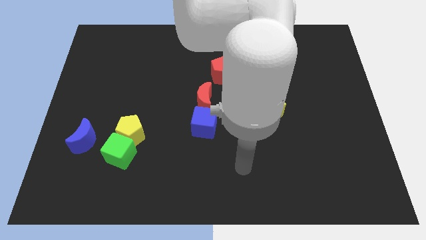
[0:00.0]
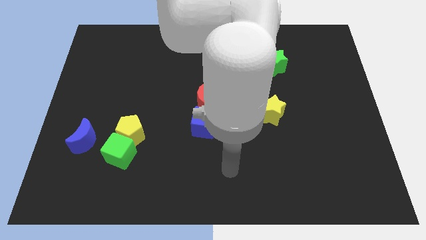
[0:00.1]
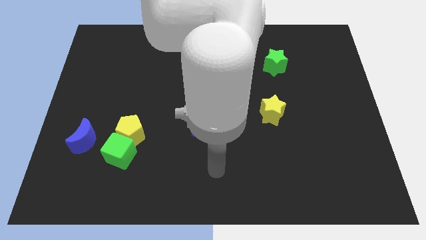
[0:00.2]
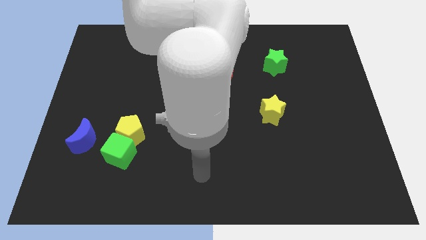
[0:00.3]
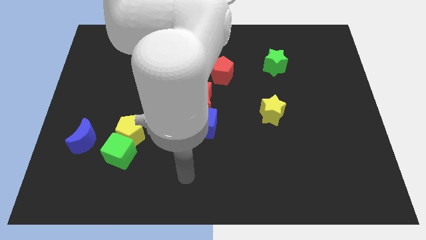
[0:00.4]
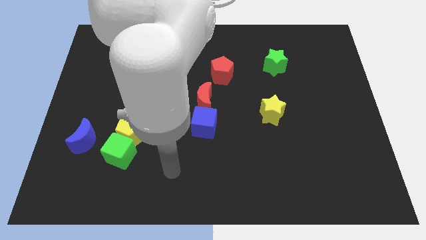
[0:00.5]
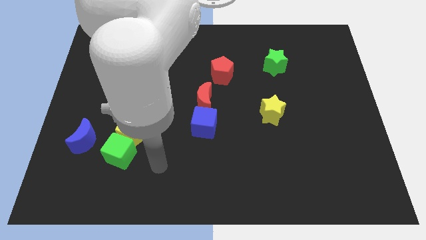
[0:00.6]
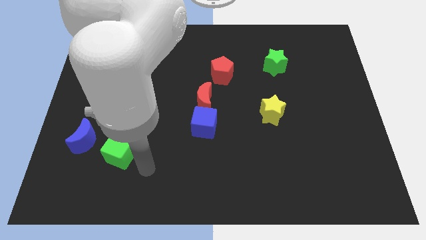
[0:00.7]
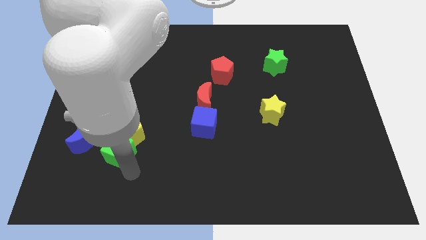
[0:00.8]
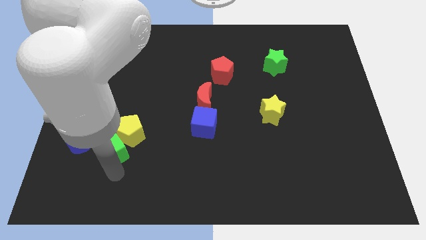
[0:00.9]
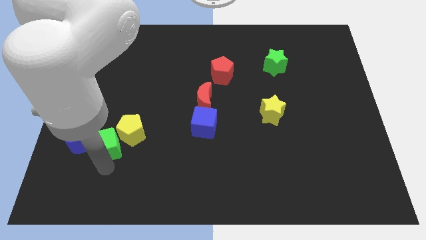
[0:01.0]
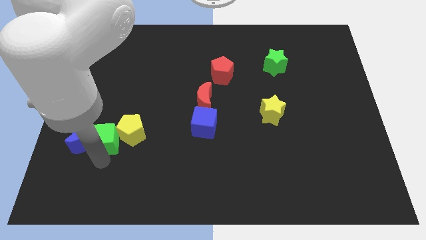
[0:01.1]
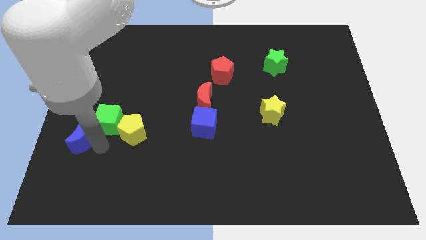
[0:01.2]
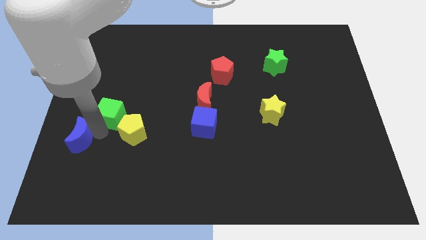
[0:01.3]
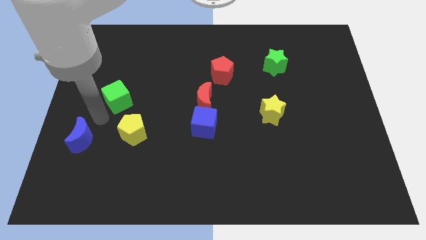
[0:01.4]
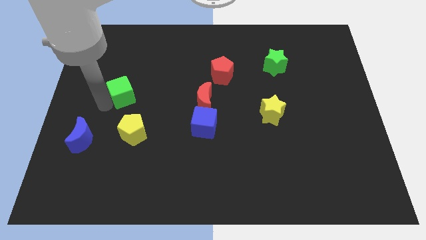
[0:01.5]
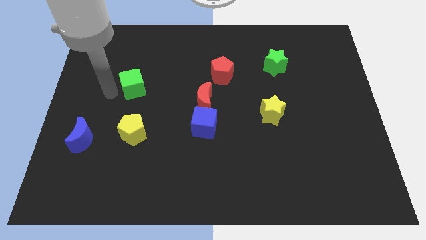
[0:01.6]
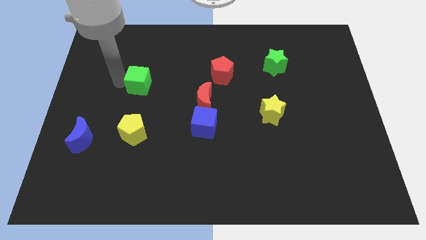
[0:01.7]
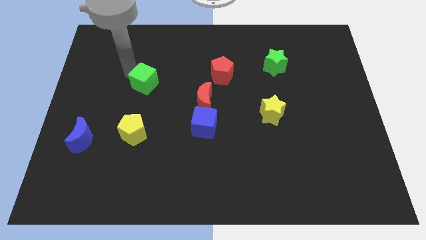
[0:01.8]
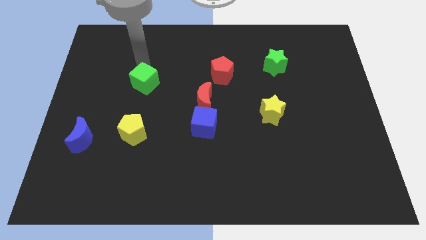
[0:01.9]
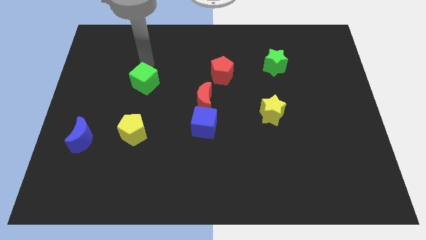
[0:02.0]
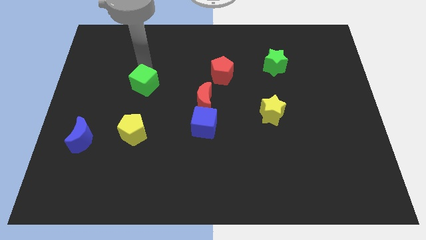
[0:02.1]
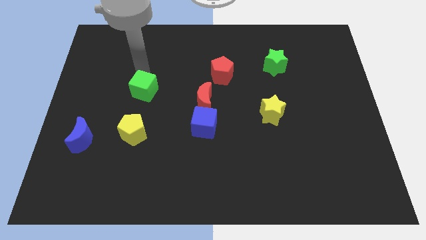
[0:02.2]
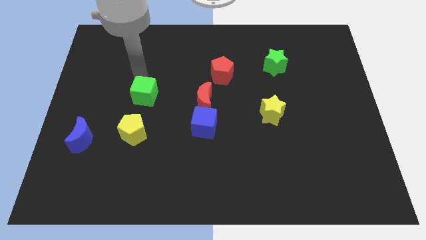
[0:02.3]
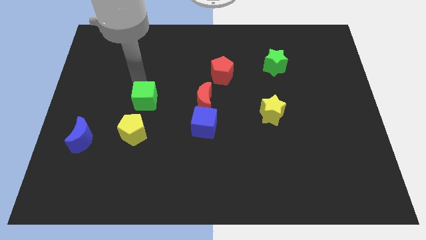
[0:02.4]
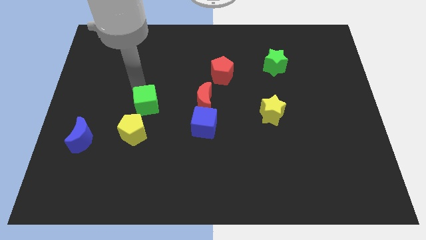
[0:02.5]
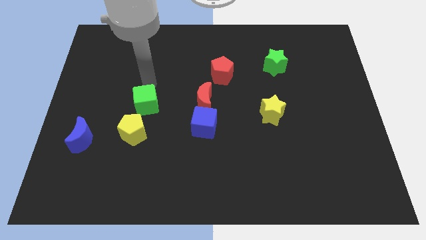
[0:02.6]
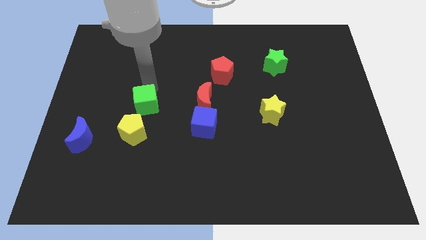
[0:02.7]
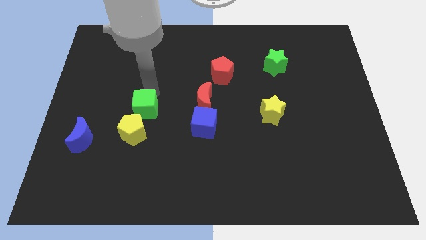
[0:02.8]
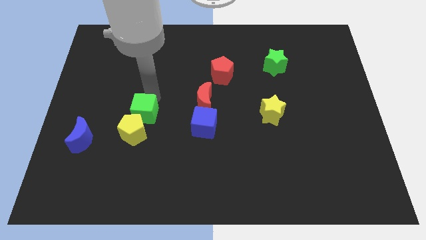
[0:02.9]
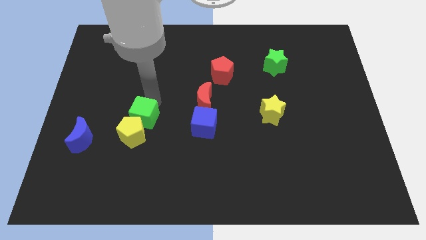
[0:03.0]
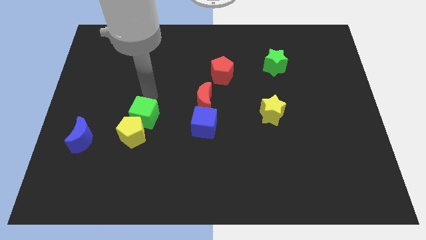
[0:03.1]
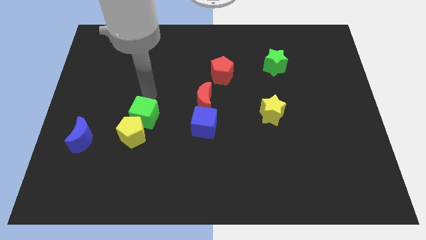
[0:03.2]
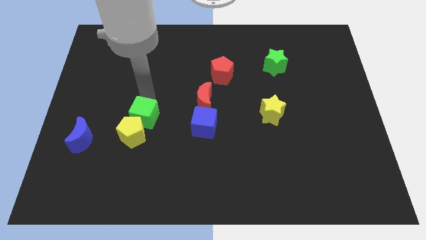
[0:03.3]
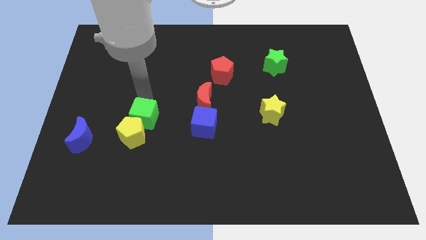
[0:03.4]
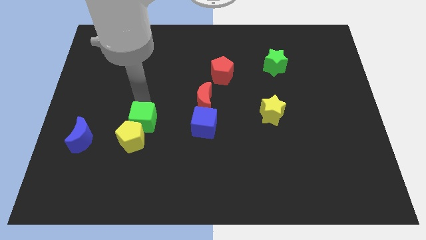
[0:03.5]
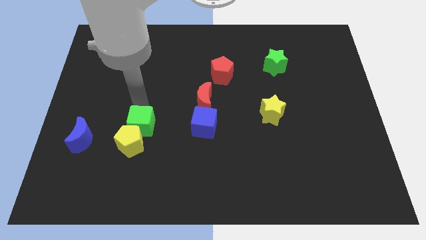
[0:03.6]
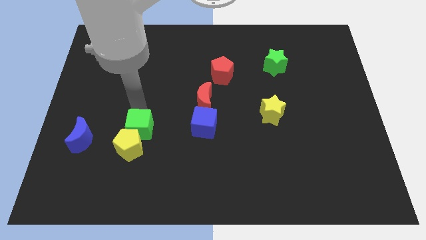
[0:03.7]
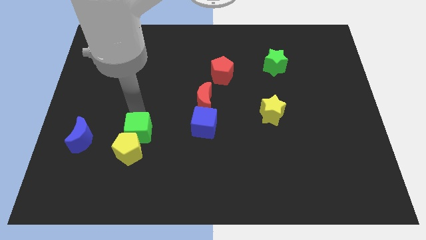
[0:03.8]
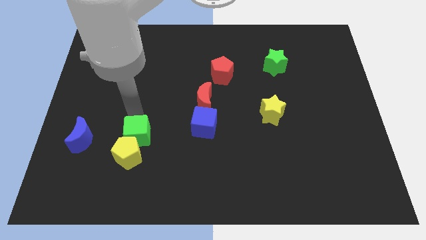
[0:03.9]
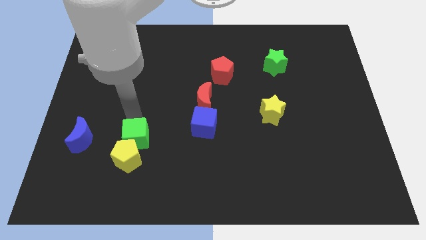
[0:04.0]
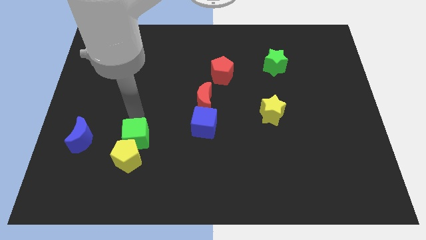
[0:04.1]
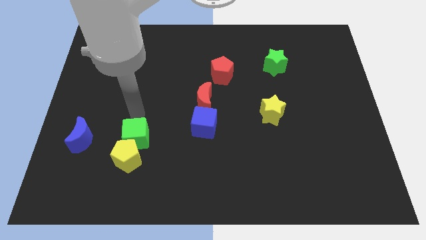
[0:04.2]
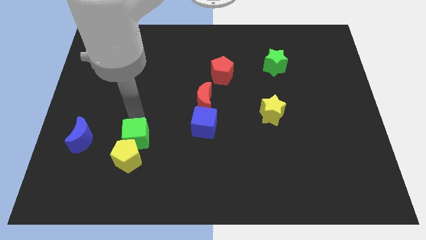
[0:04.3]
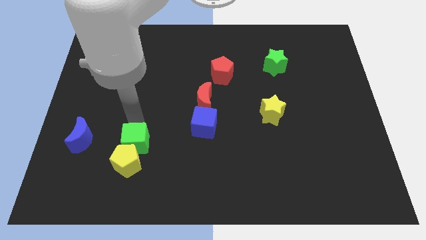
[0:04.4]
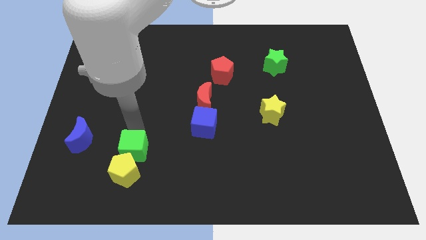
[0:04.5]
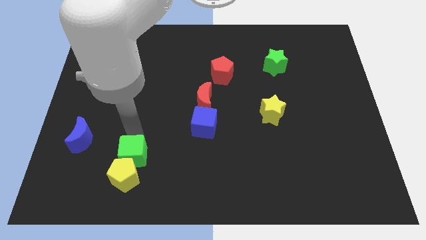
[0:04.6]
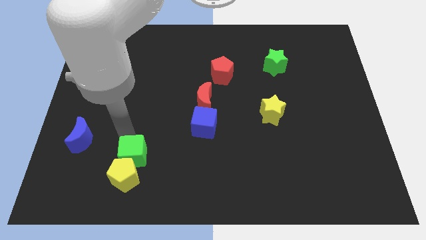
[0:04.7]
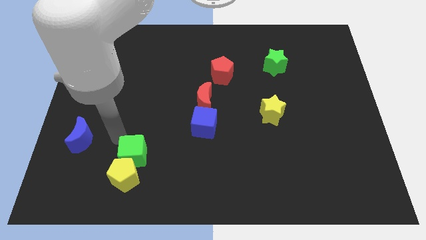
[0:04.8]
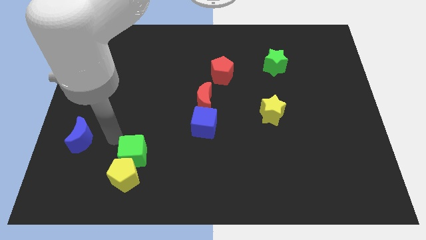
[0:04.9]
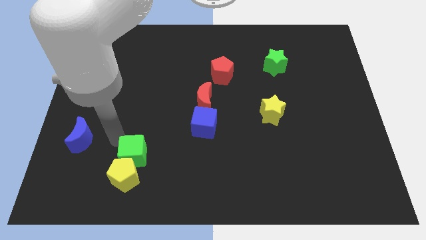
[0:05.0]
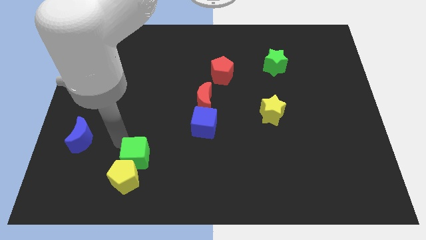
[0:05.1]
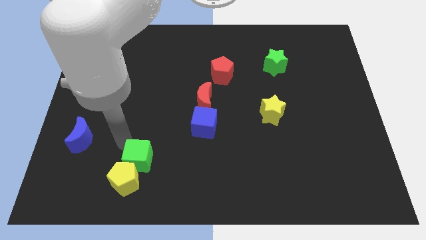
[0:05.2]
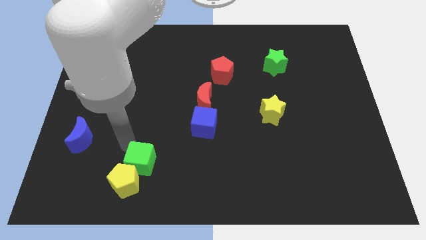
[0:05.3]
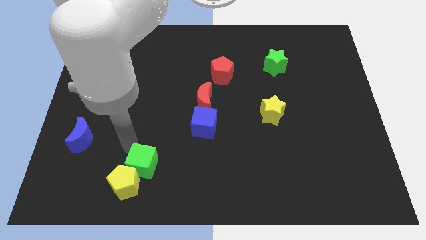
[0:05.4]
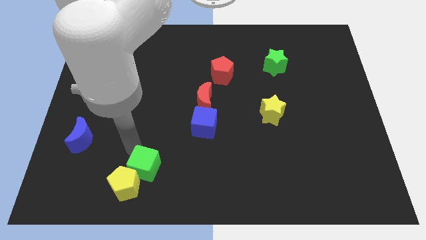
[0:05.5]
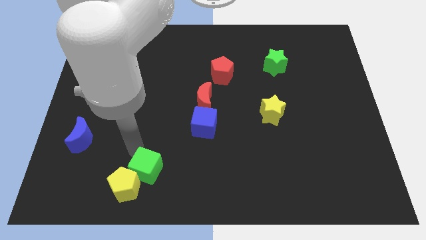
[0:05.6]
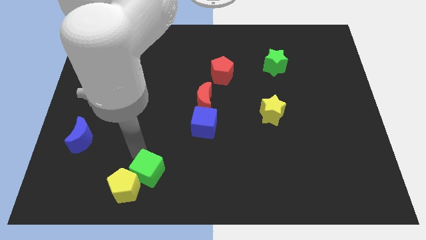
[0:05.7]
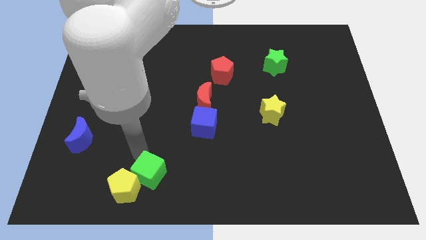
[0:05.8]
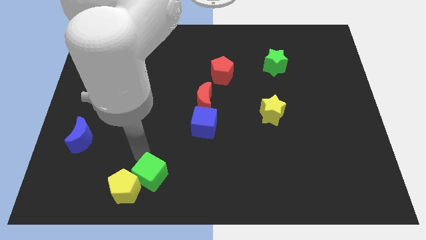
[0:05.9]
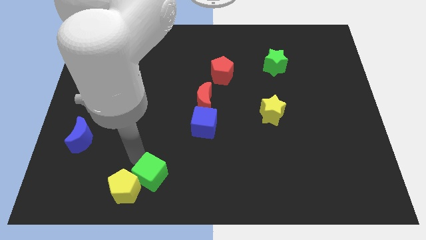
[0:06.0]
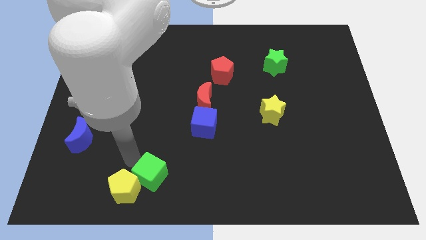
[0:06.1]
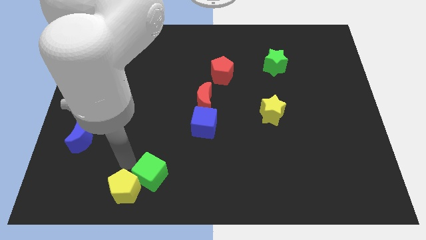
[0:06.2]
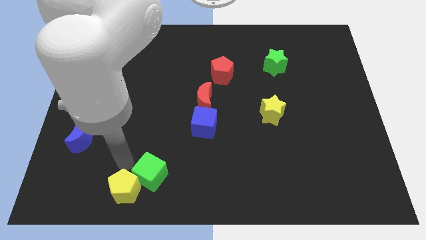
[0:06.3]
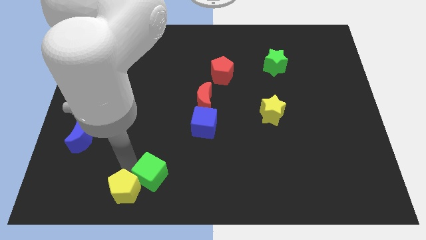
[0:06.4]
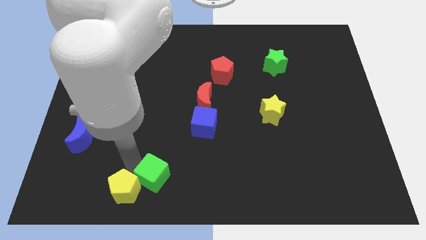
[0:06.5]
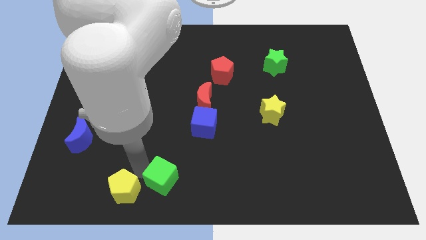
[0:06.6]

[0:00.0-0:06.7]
move the green cube to the bottom

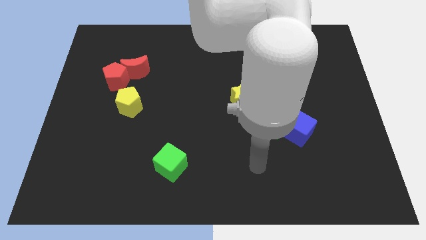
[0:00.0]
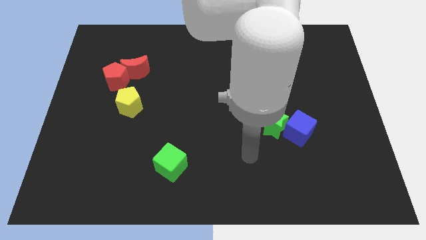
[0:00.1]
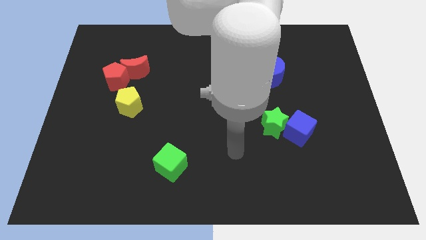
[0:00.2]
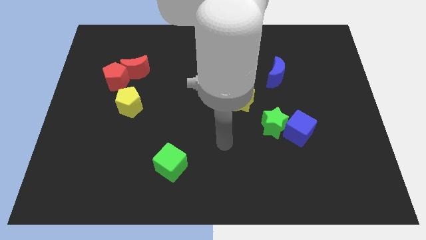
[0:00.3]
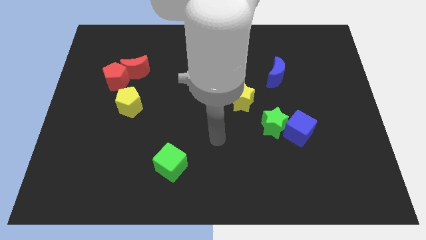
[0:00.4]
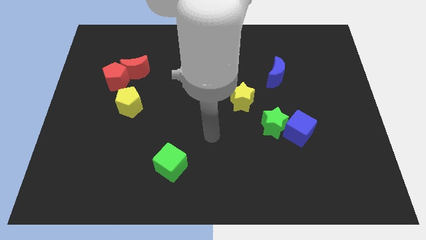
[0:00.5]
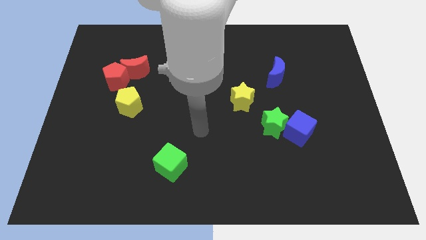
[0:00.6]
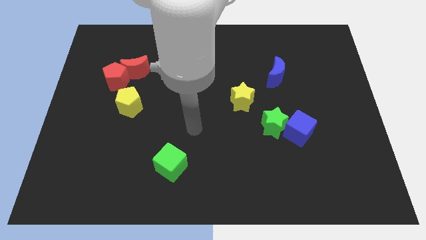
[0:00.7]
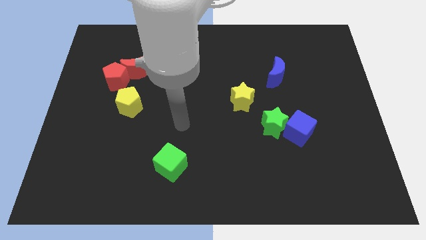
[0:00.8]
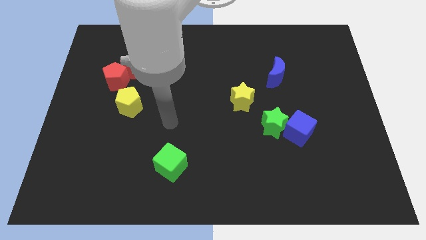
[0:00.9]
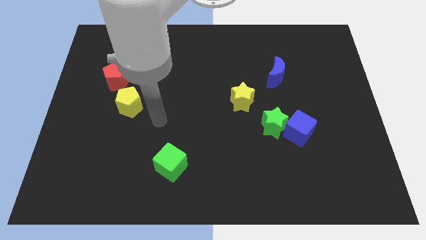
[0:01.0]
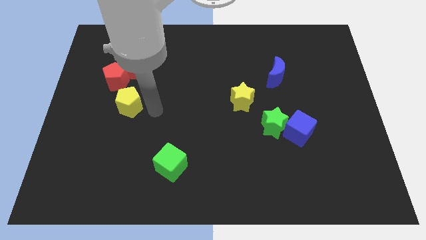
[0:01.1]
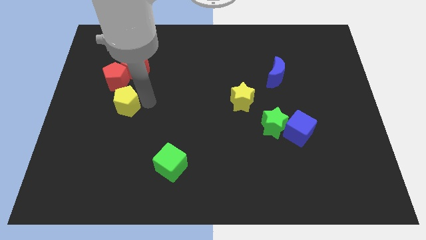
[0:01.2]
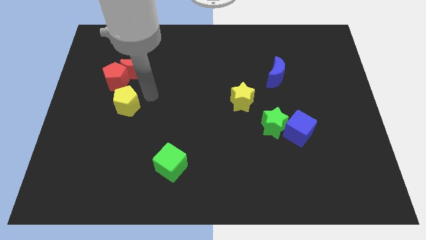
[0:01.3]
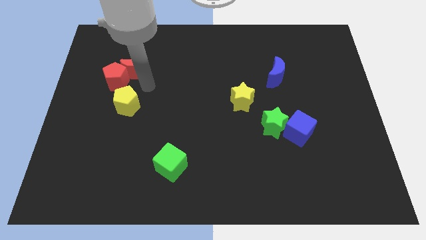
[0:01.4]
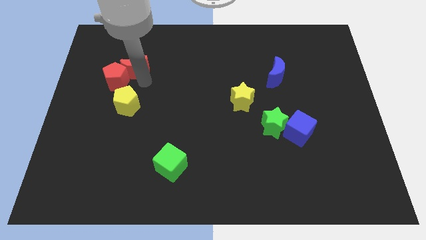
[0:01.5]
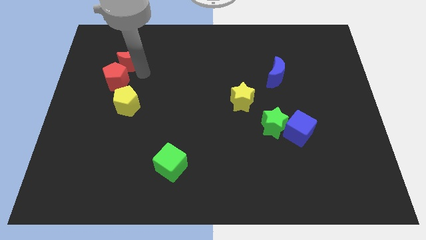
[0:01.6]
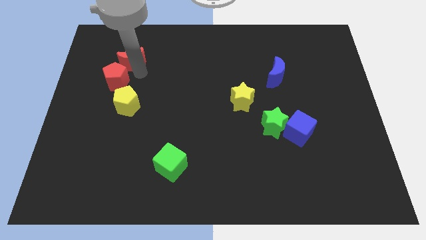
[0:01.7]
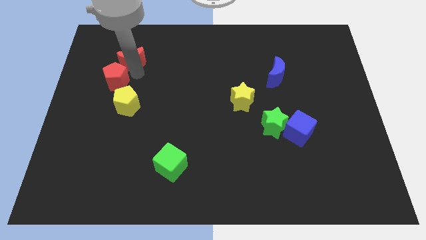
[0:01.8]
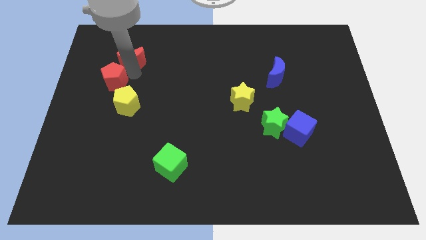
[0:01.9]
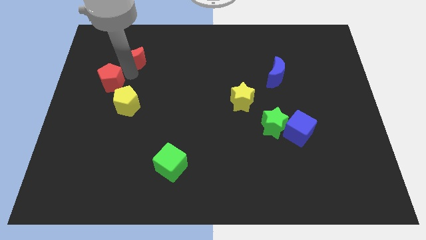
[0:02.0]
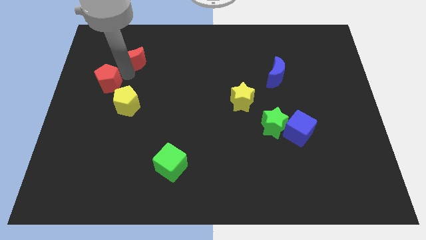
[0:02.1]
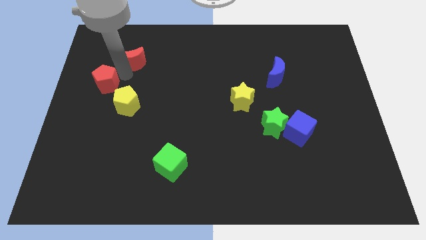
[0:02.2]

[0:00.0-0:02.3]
push the red pentagon to the center left
